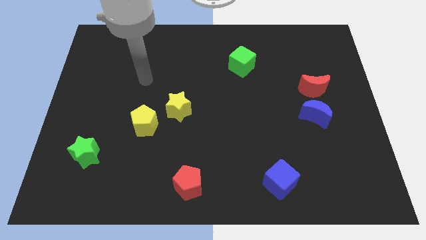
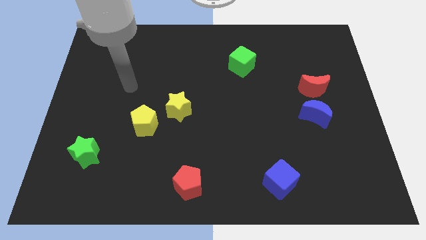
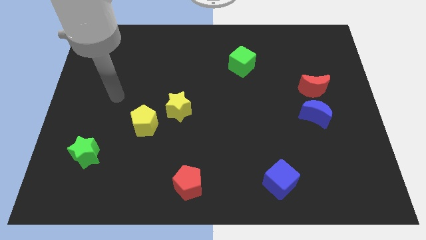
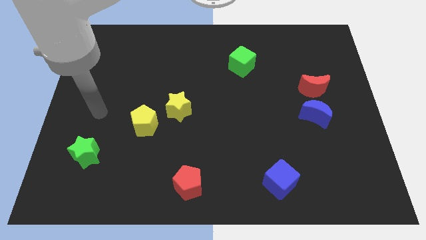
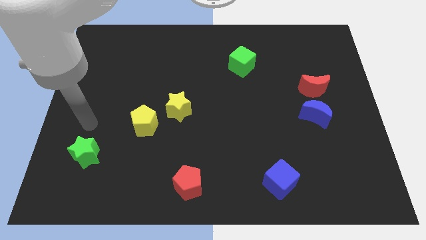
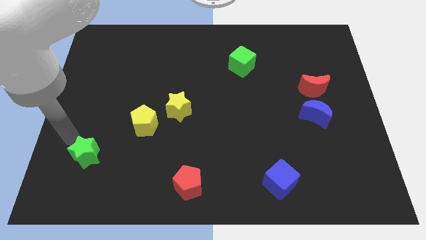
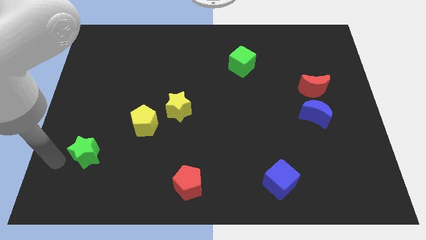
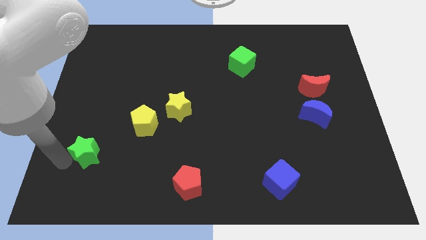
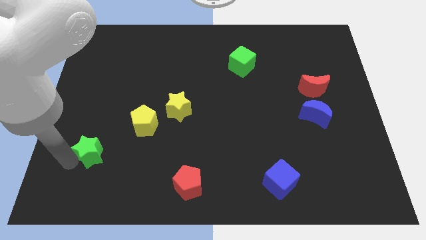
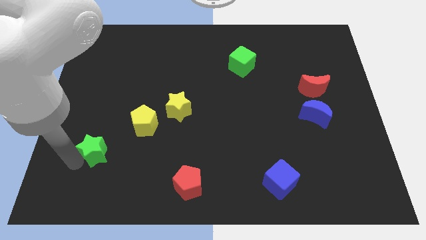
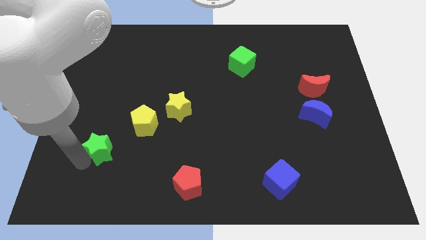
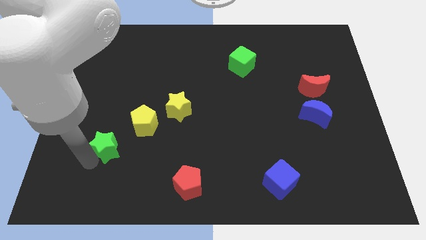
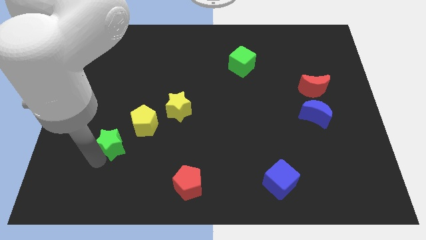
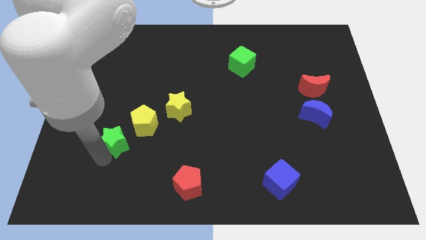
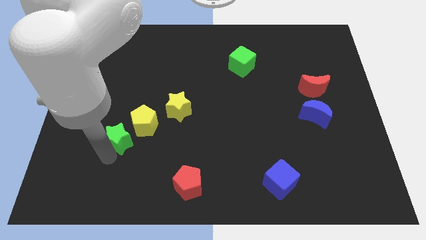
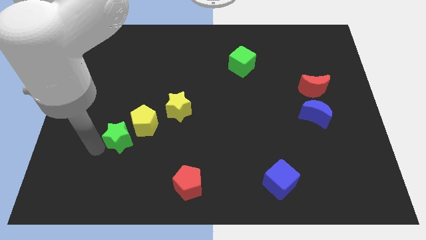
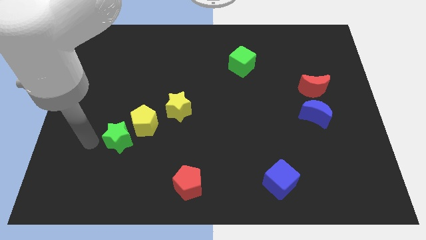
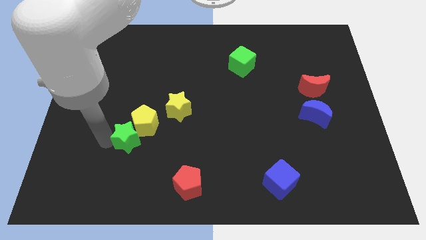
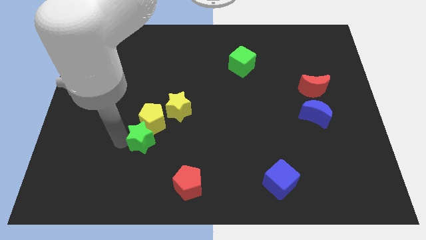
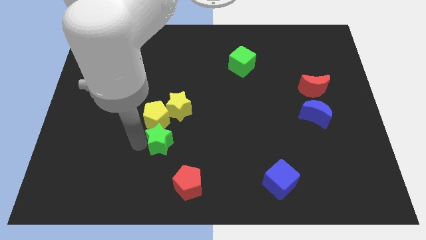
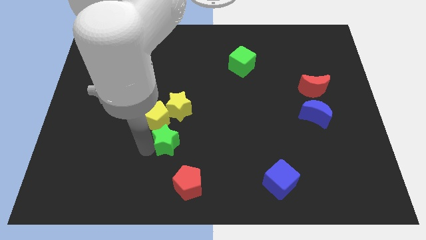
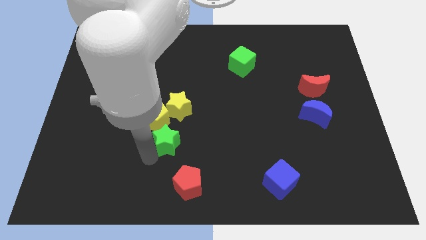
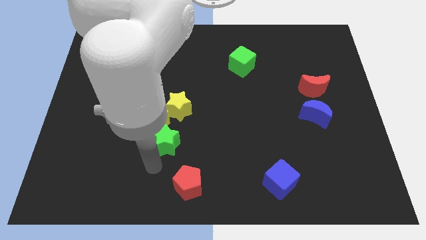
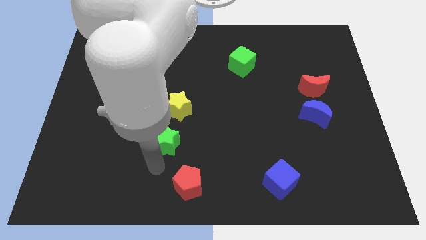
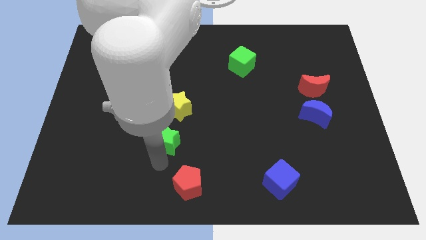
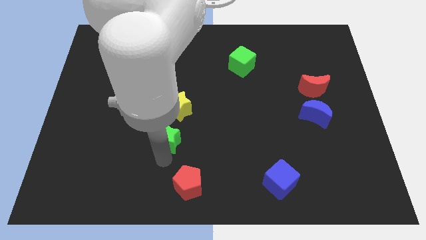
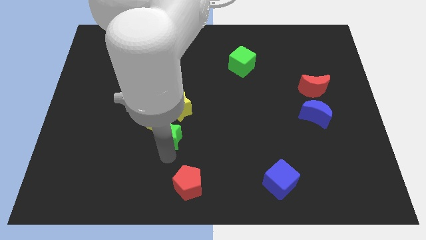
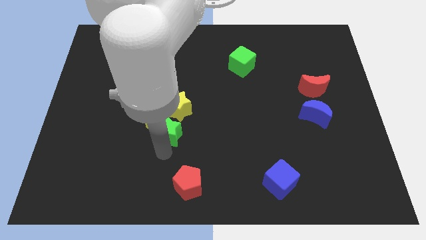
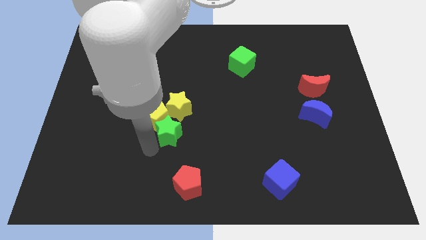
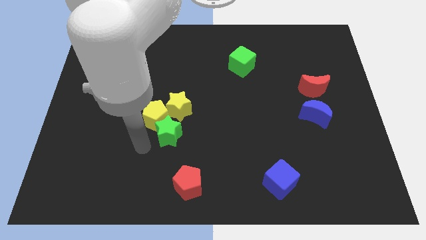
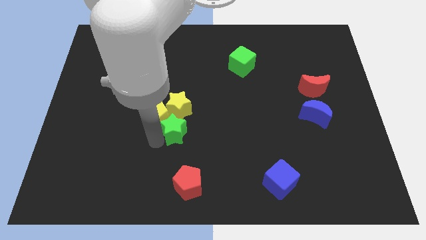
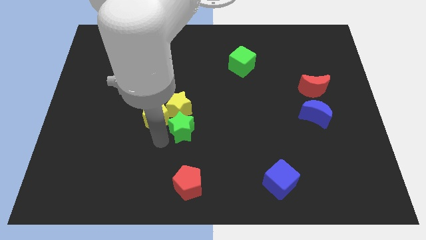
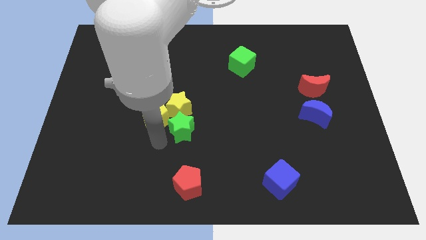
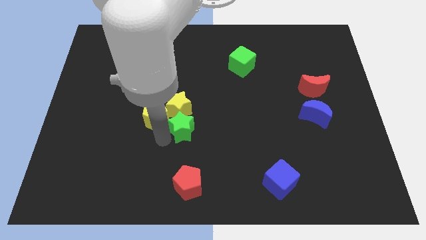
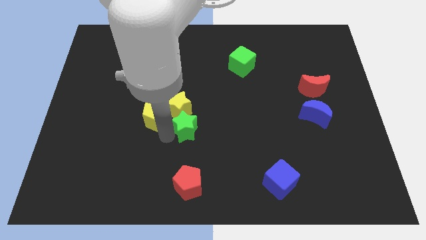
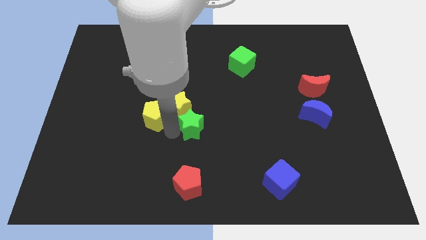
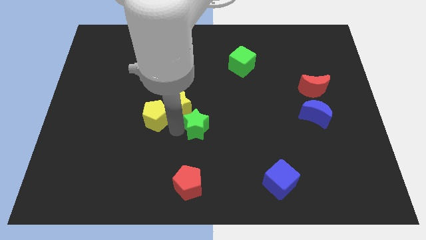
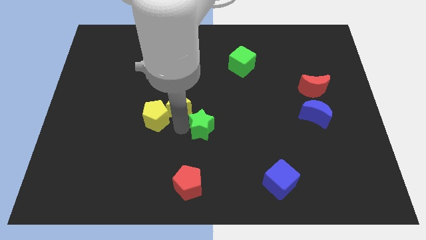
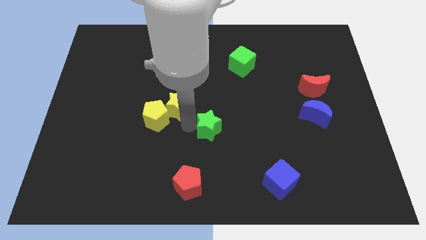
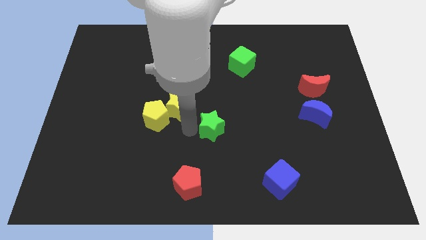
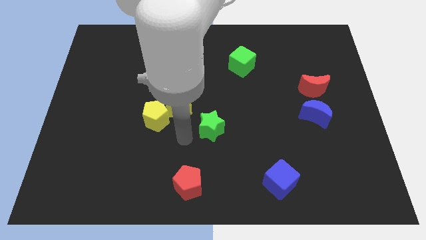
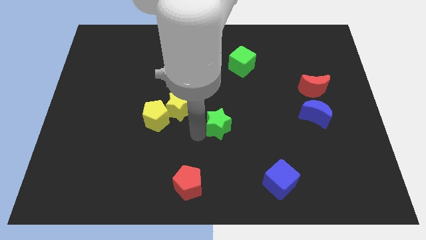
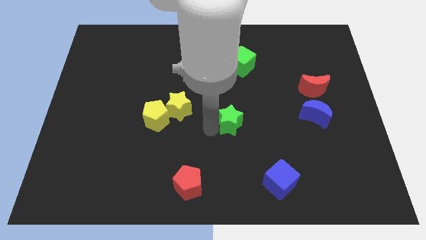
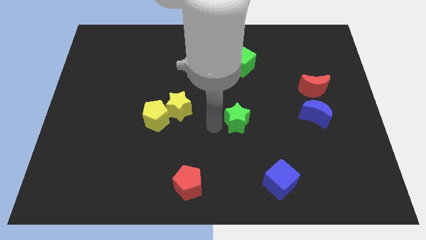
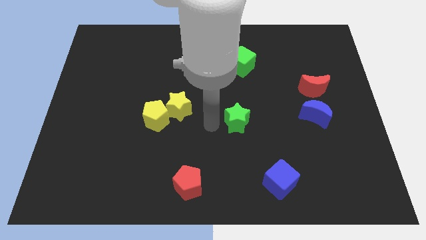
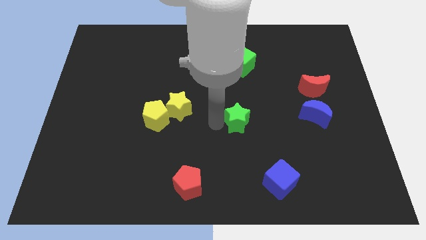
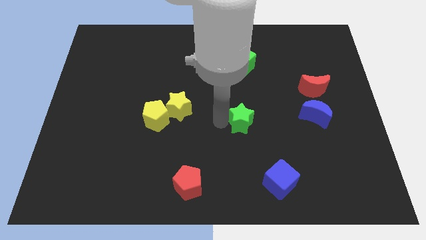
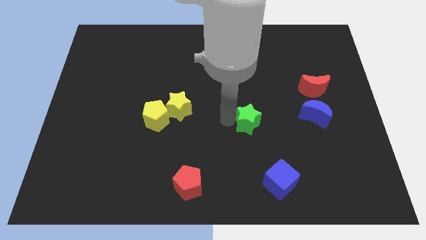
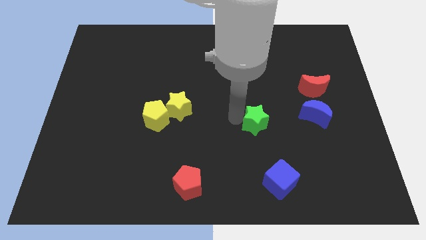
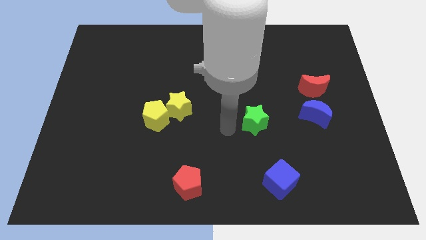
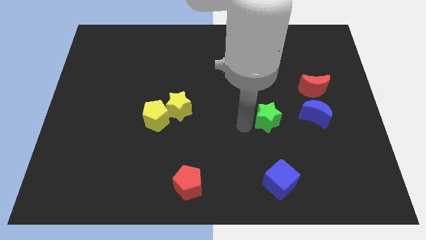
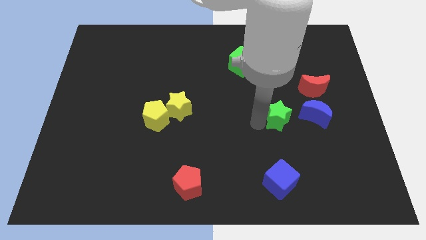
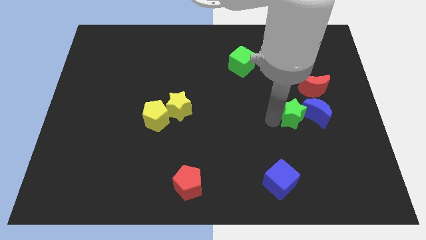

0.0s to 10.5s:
put the green star next to the blue moon

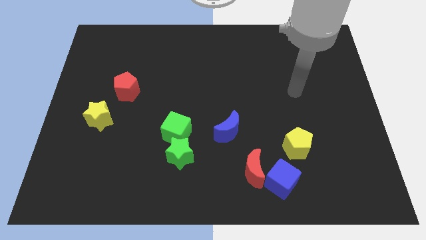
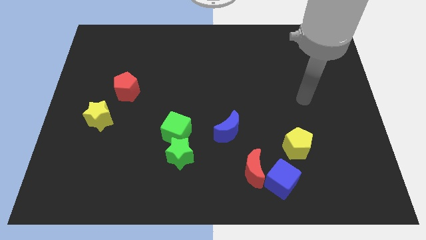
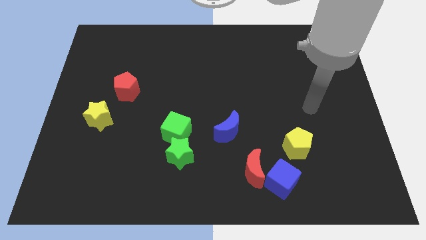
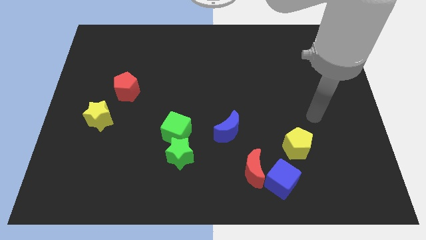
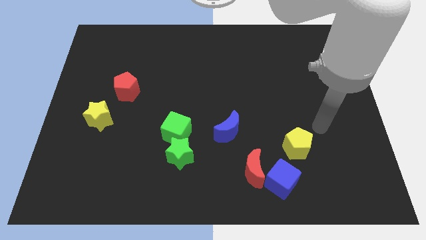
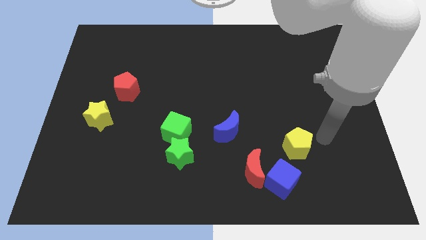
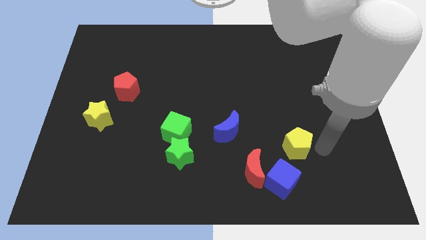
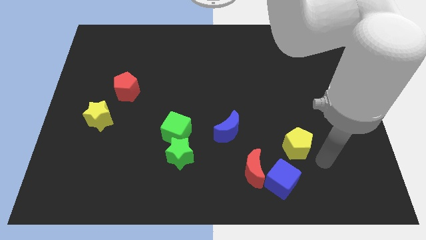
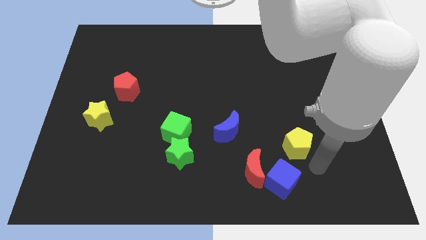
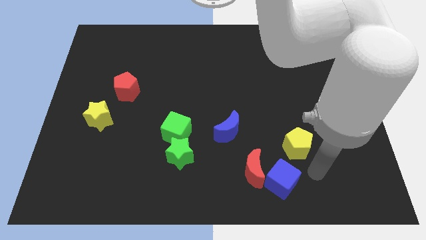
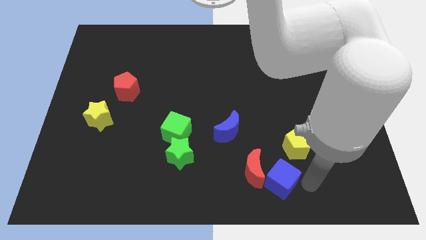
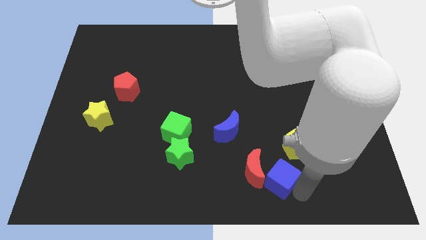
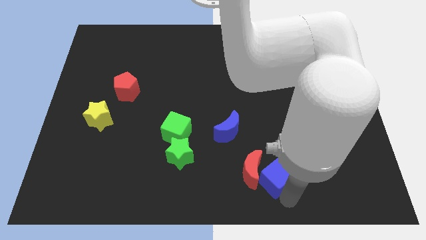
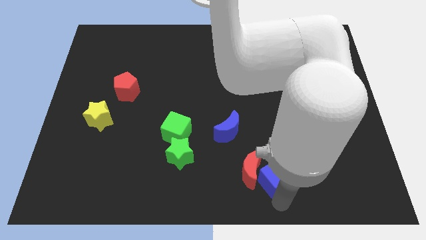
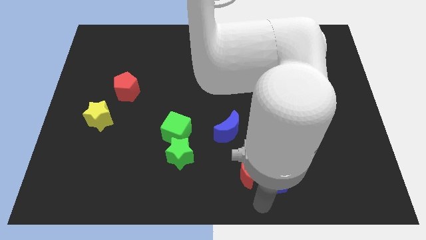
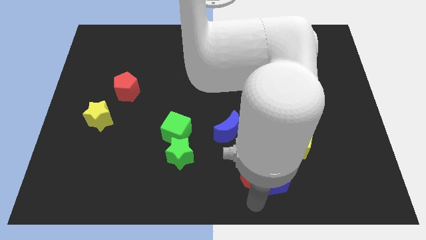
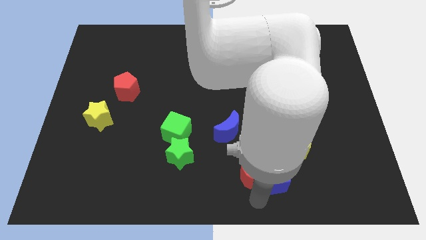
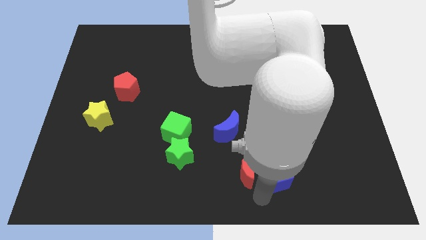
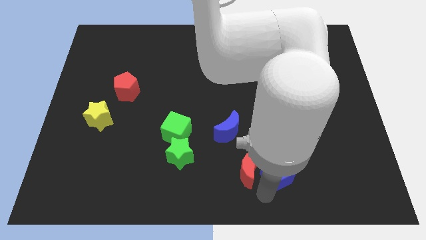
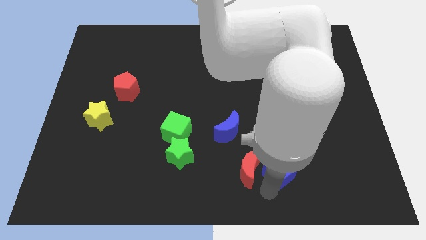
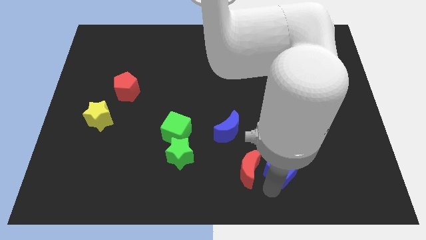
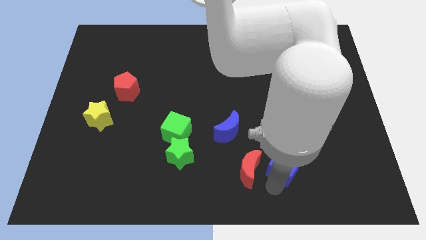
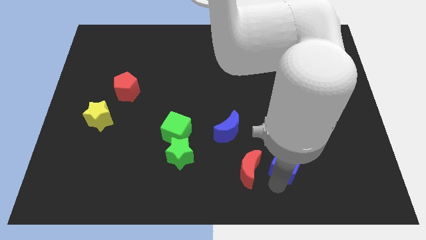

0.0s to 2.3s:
push the blue cube close to the yellow pentagon
